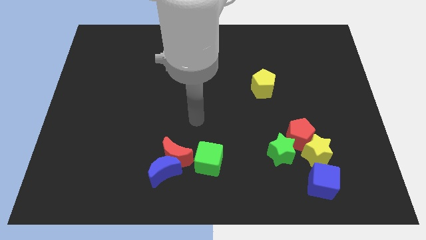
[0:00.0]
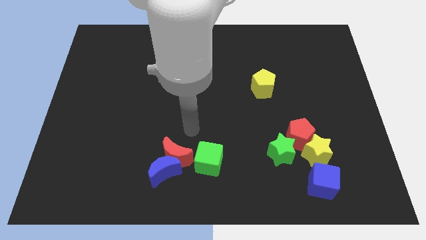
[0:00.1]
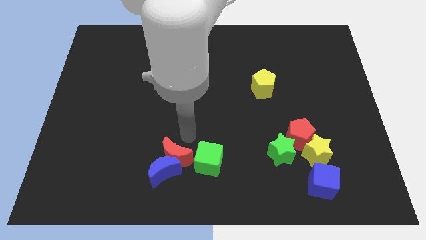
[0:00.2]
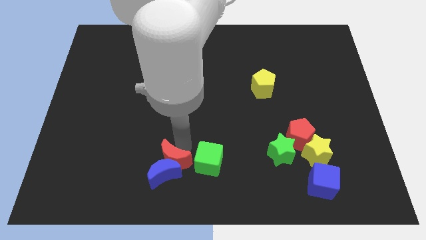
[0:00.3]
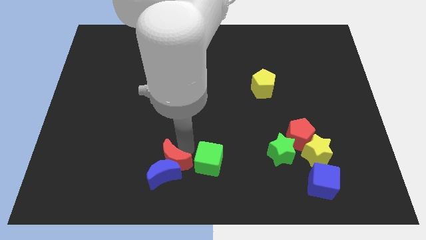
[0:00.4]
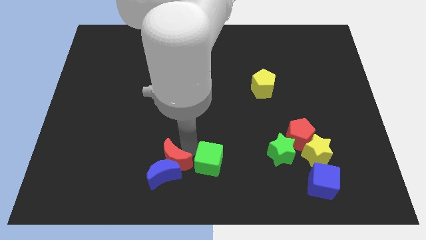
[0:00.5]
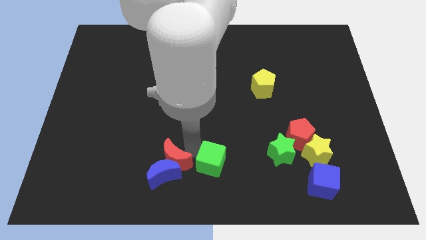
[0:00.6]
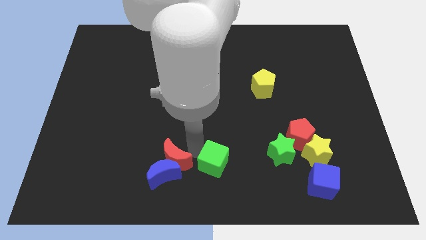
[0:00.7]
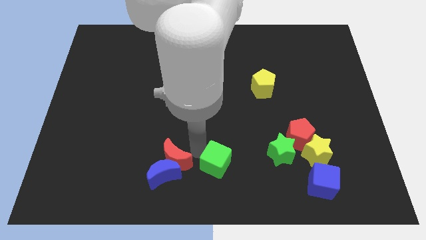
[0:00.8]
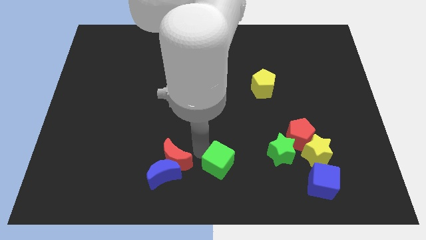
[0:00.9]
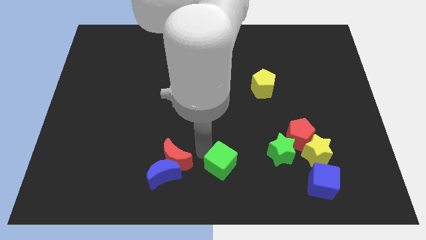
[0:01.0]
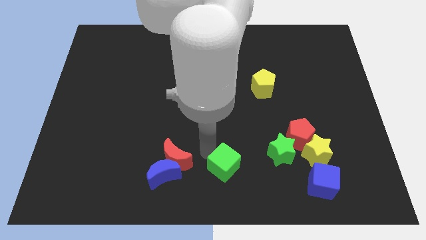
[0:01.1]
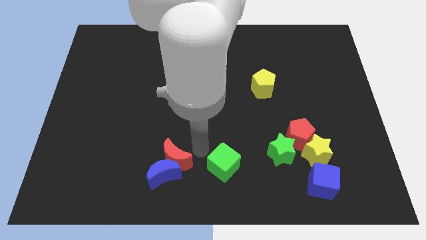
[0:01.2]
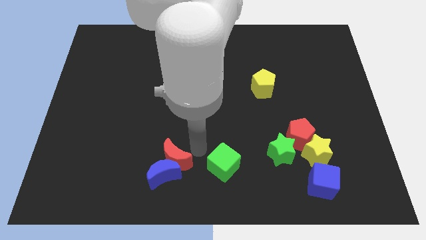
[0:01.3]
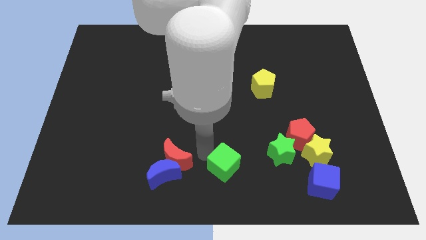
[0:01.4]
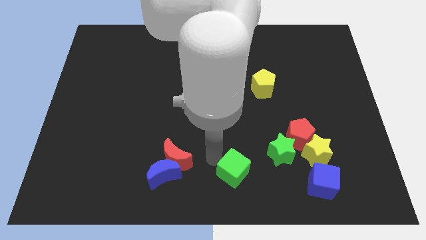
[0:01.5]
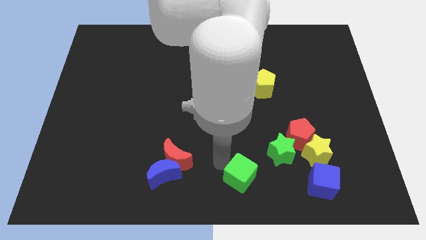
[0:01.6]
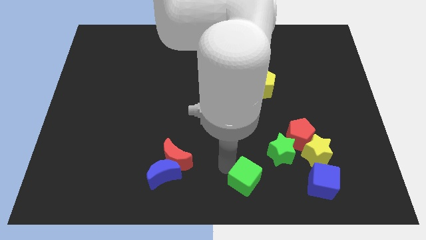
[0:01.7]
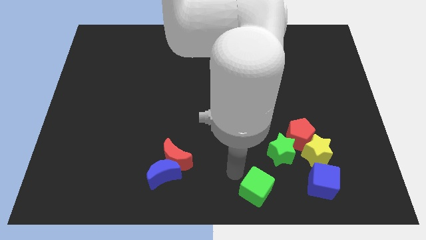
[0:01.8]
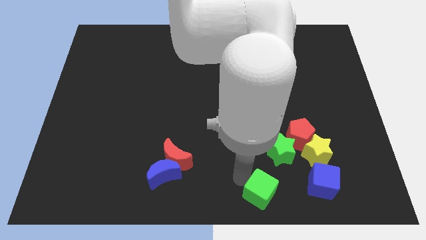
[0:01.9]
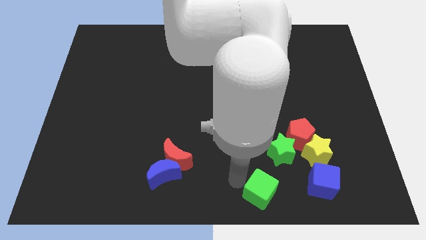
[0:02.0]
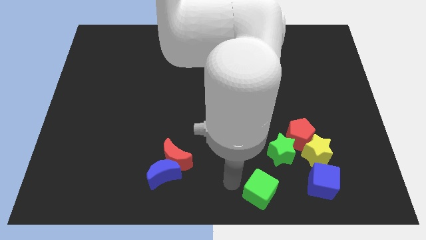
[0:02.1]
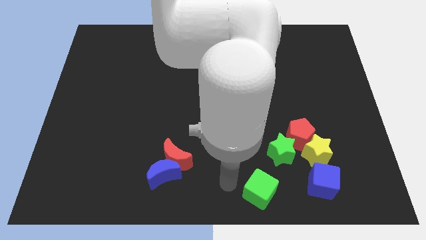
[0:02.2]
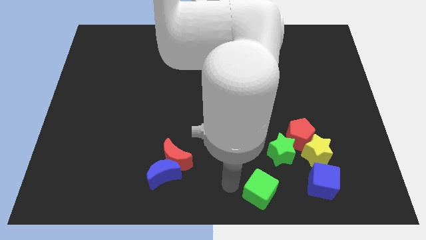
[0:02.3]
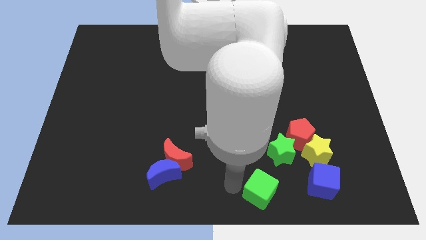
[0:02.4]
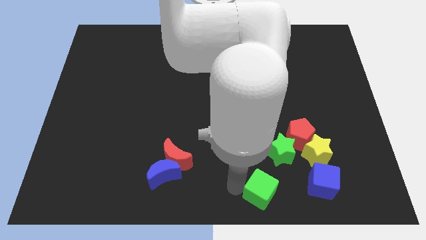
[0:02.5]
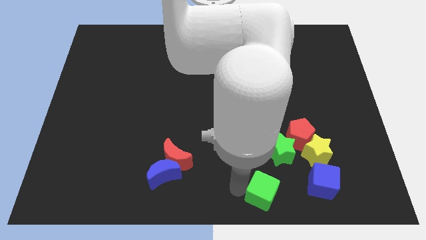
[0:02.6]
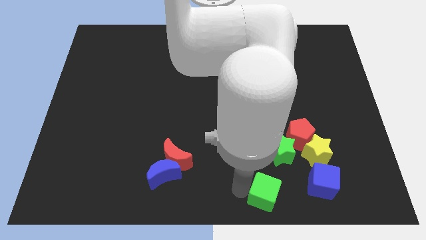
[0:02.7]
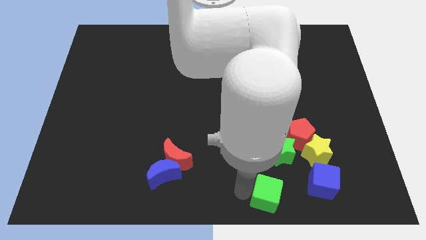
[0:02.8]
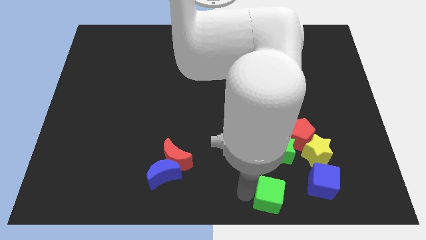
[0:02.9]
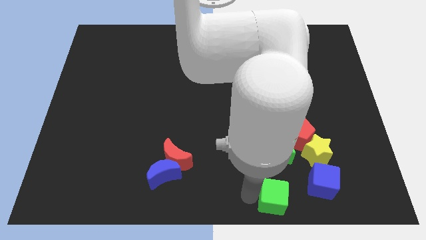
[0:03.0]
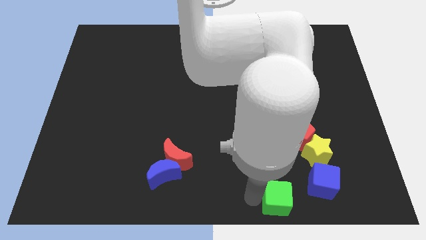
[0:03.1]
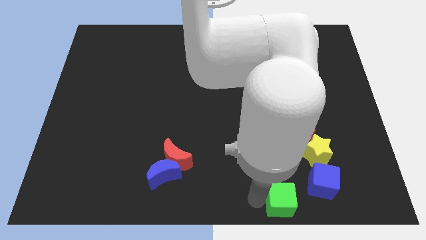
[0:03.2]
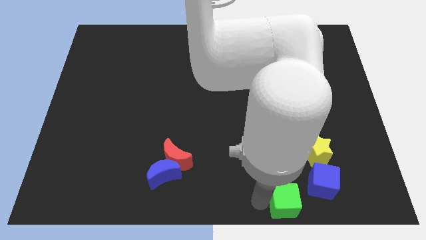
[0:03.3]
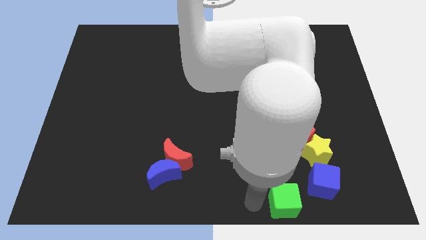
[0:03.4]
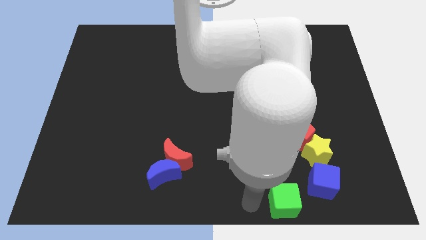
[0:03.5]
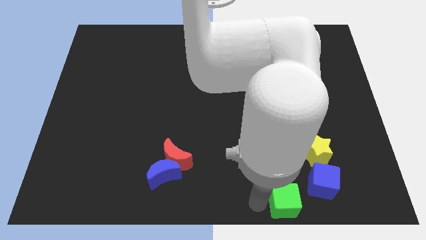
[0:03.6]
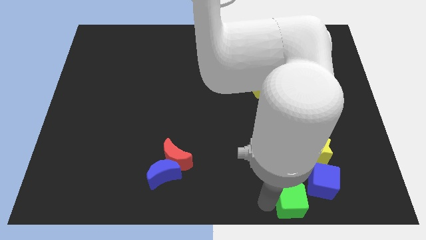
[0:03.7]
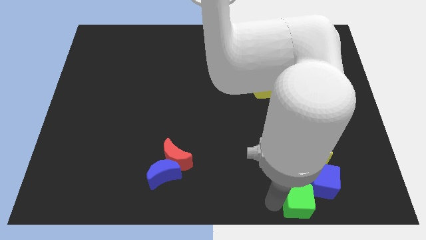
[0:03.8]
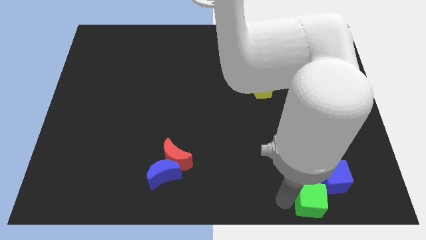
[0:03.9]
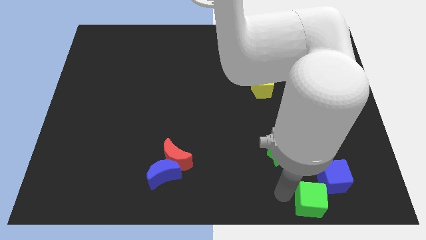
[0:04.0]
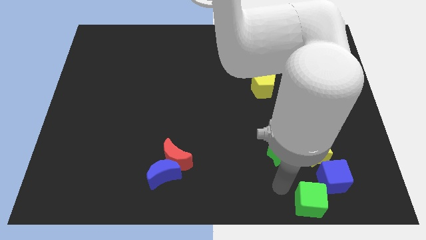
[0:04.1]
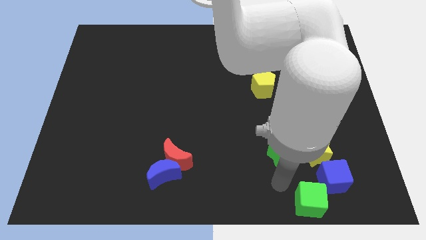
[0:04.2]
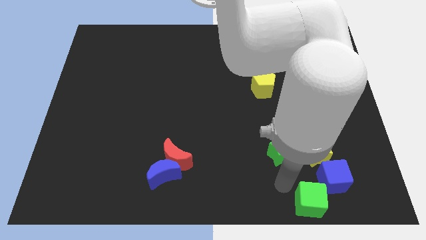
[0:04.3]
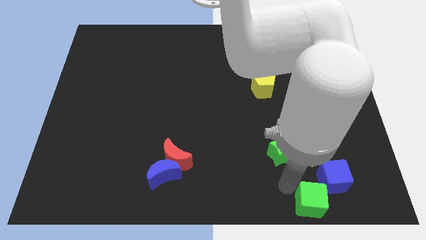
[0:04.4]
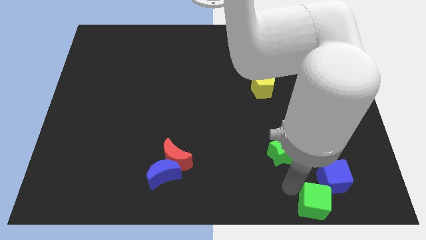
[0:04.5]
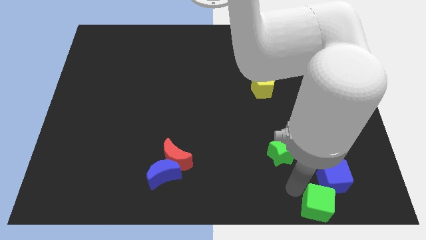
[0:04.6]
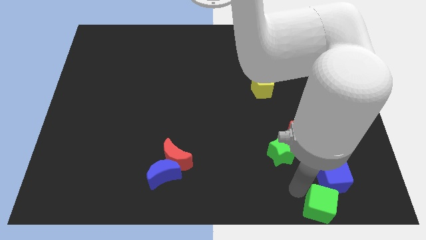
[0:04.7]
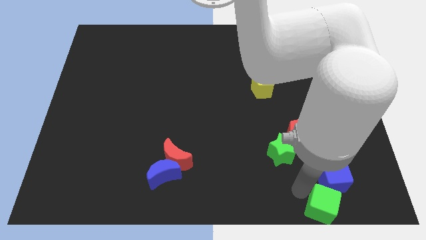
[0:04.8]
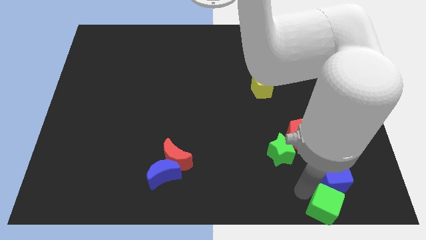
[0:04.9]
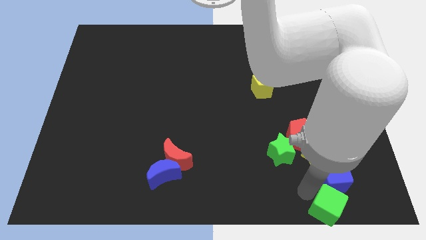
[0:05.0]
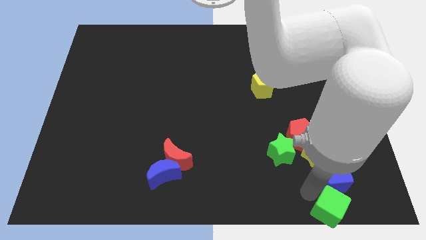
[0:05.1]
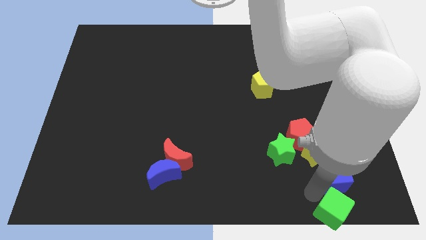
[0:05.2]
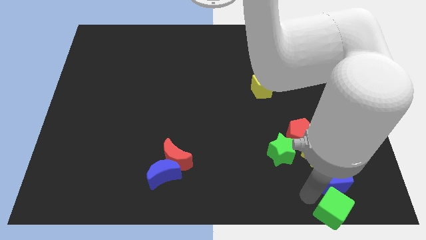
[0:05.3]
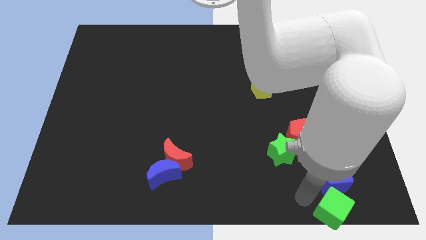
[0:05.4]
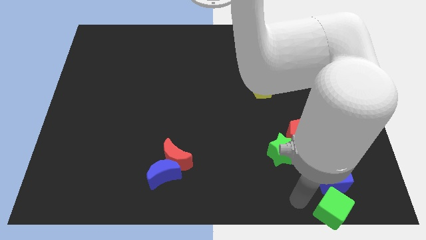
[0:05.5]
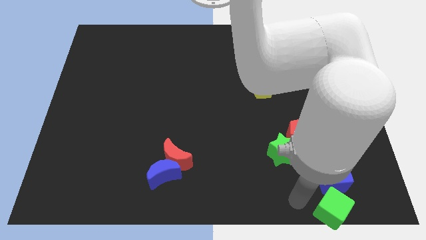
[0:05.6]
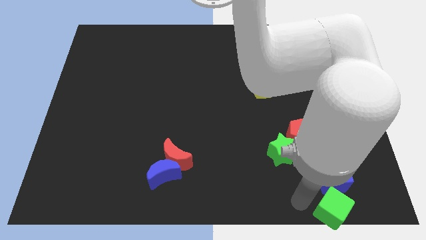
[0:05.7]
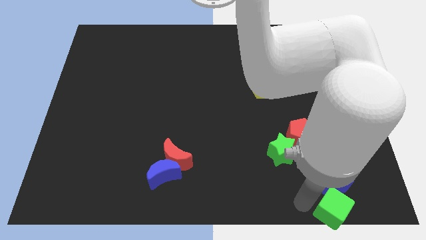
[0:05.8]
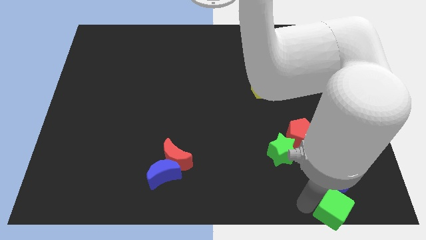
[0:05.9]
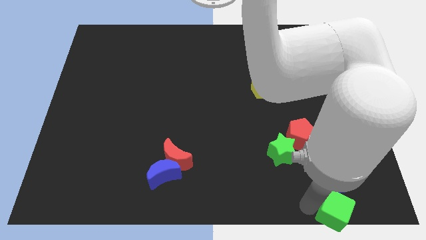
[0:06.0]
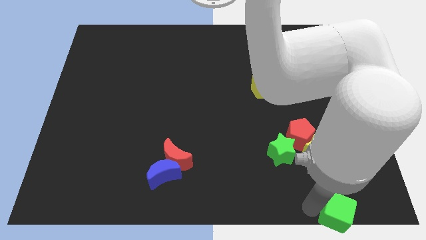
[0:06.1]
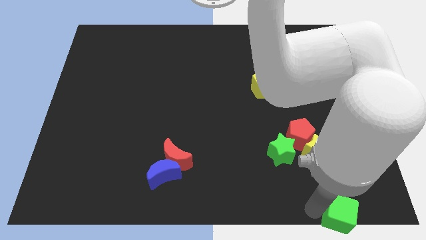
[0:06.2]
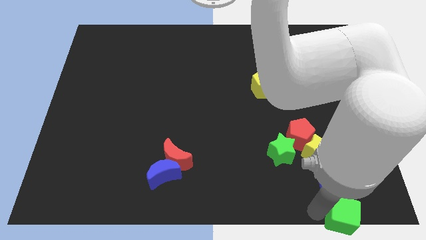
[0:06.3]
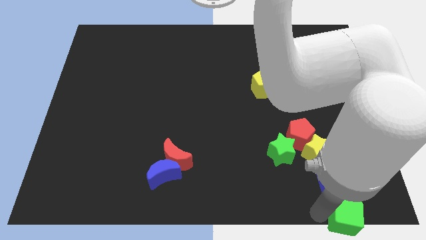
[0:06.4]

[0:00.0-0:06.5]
put the green cube to the bottom right
